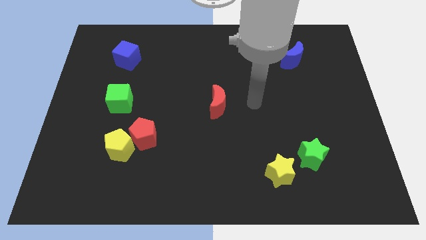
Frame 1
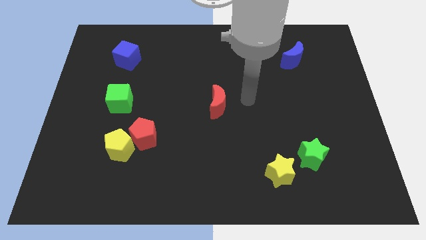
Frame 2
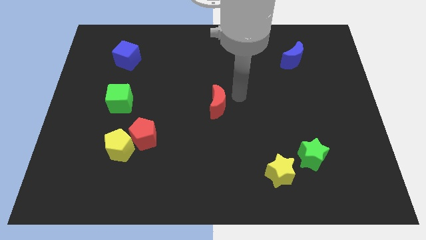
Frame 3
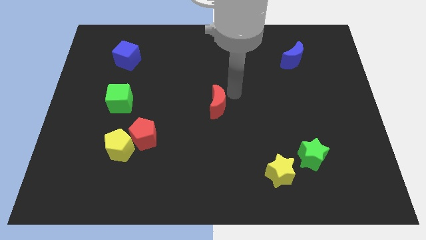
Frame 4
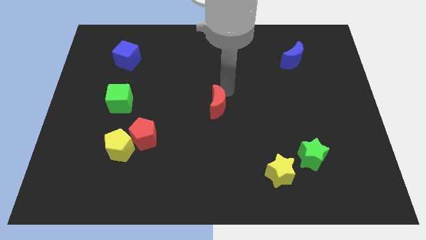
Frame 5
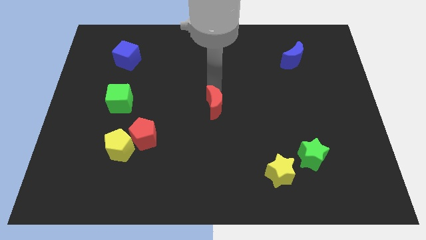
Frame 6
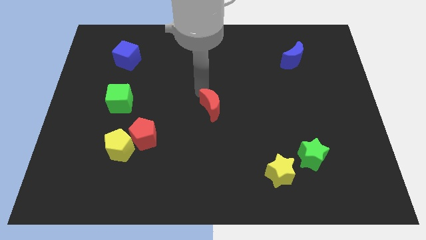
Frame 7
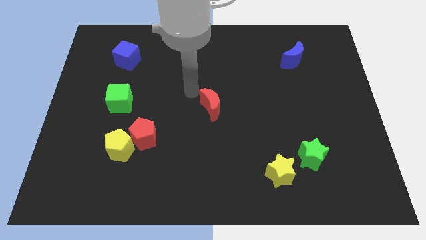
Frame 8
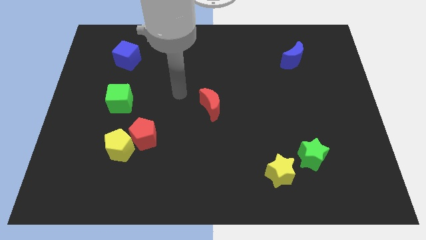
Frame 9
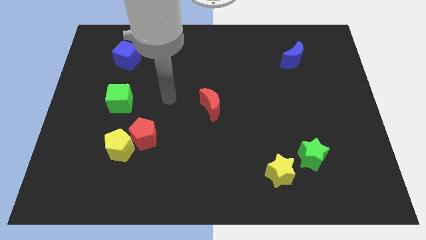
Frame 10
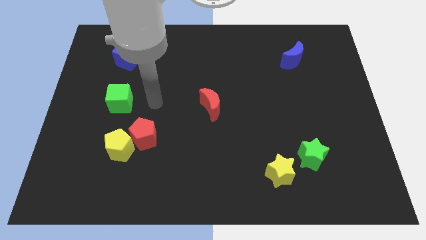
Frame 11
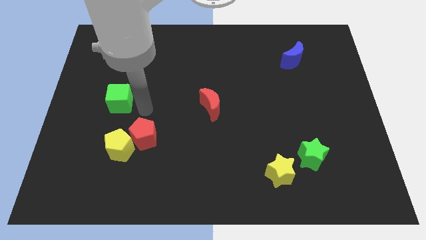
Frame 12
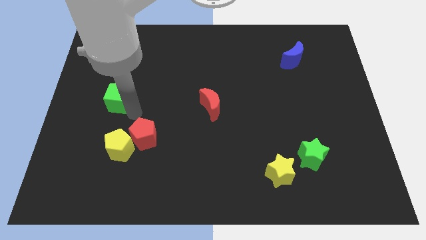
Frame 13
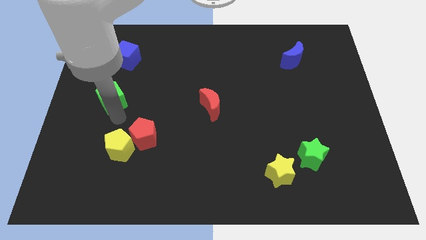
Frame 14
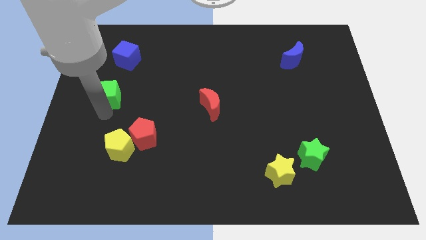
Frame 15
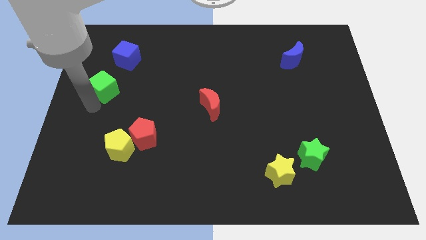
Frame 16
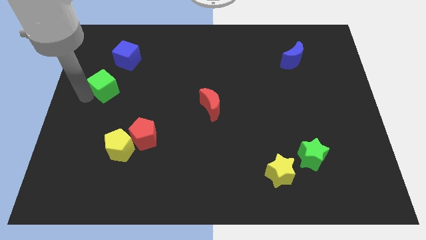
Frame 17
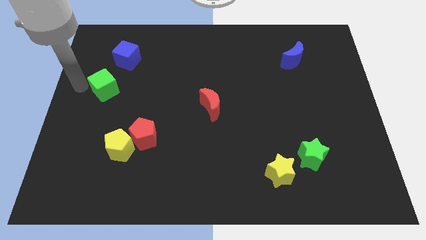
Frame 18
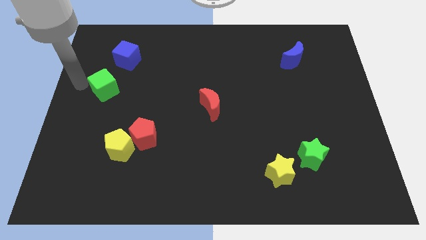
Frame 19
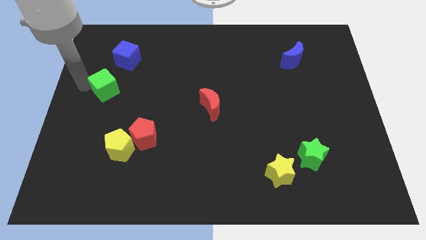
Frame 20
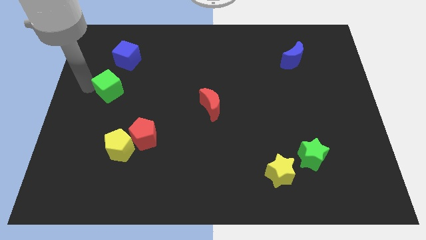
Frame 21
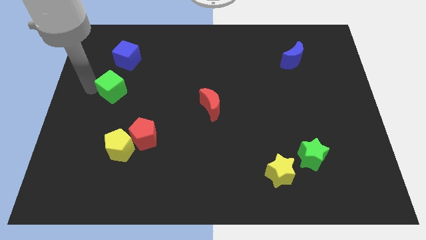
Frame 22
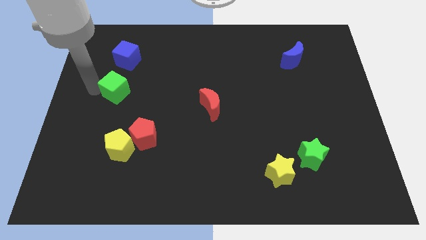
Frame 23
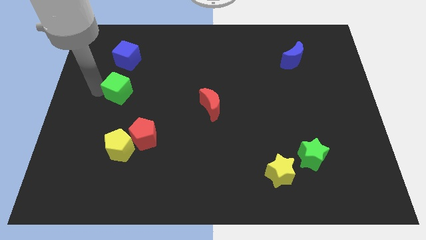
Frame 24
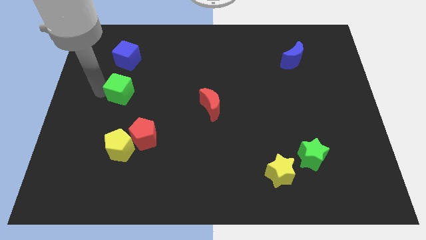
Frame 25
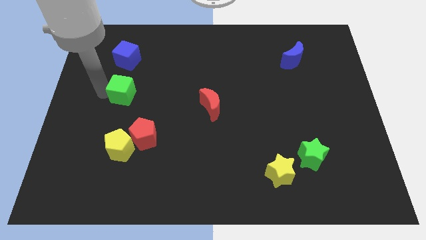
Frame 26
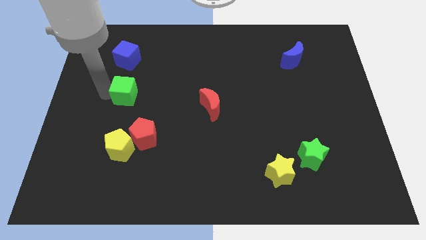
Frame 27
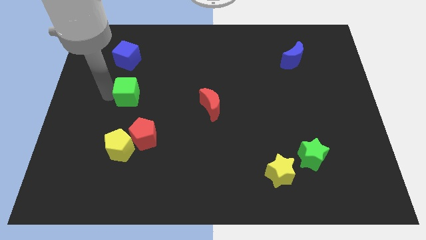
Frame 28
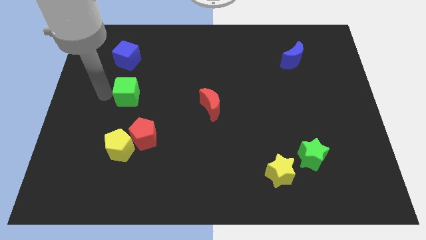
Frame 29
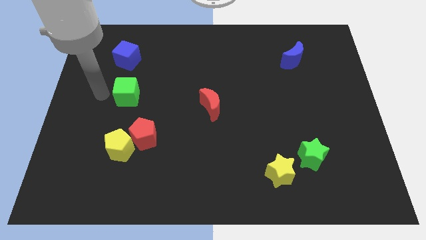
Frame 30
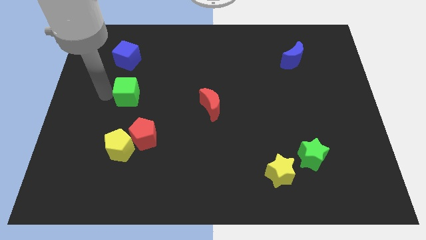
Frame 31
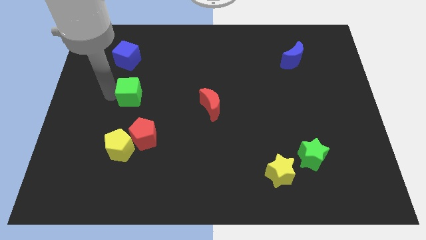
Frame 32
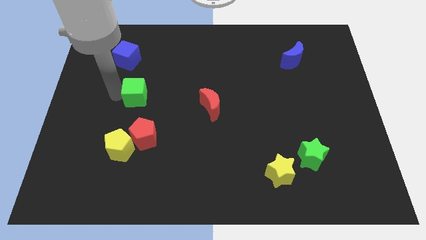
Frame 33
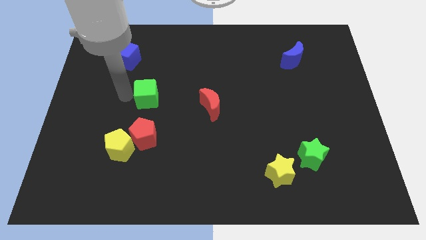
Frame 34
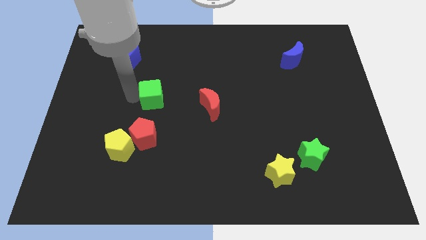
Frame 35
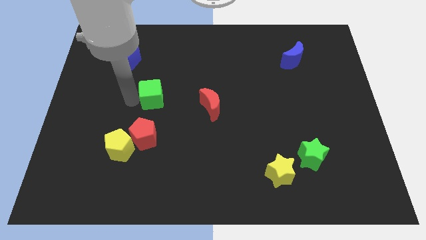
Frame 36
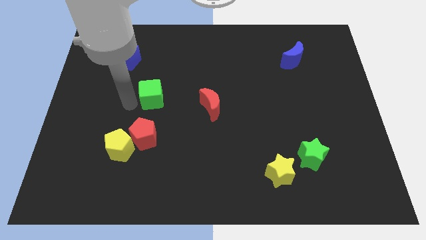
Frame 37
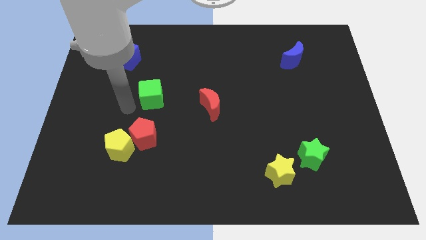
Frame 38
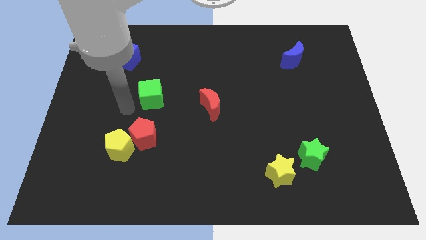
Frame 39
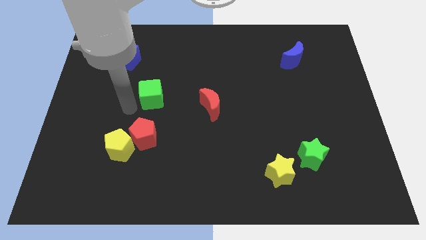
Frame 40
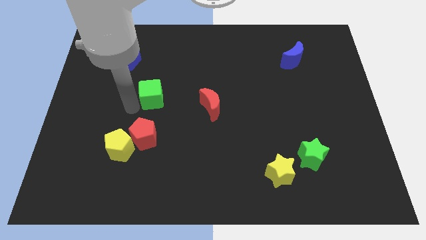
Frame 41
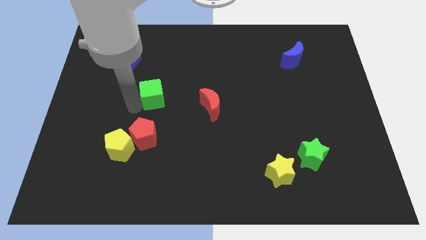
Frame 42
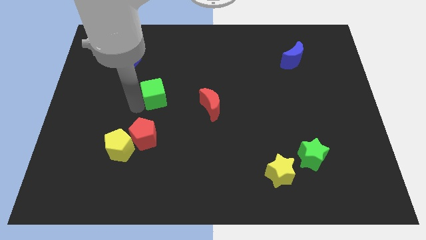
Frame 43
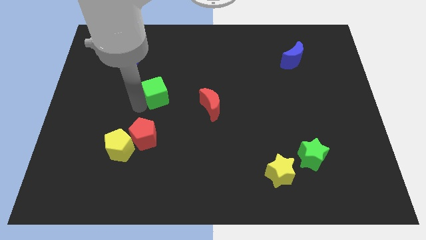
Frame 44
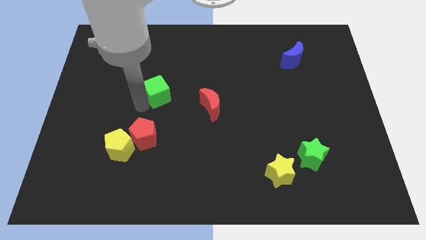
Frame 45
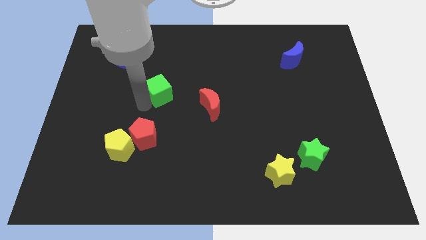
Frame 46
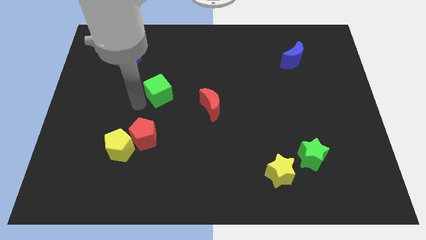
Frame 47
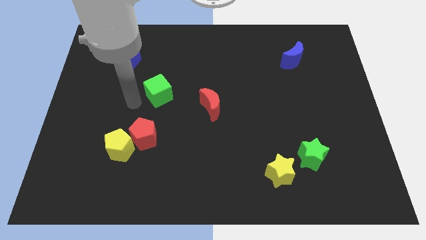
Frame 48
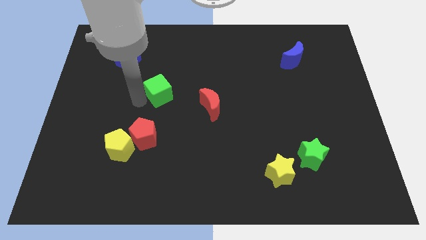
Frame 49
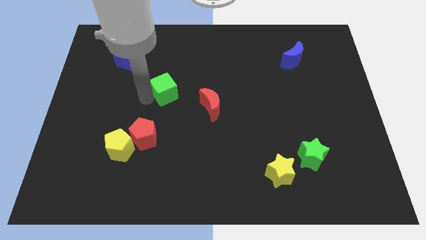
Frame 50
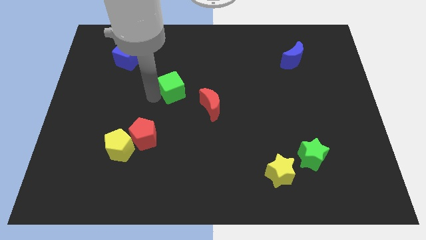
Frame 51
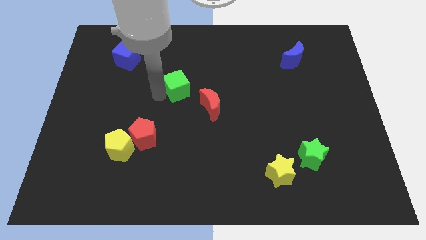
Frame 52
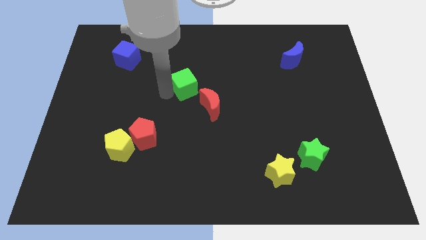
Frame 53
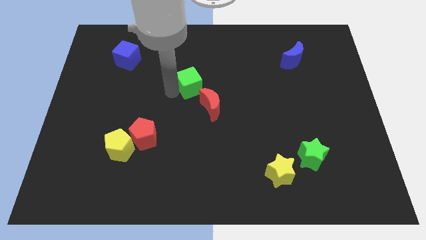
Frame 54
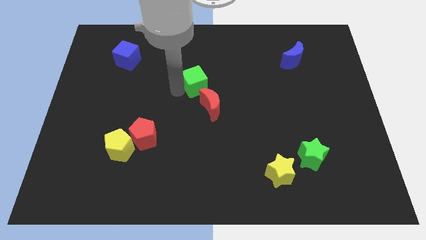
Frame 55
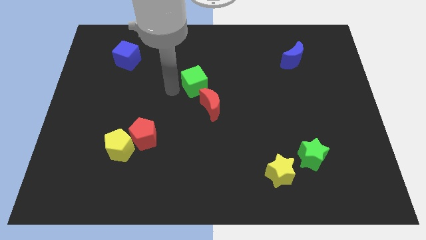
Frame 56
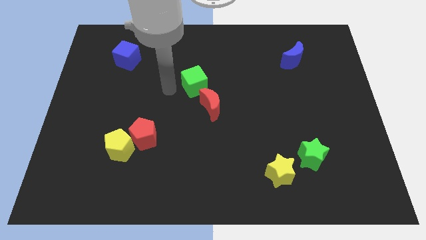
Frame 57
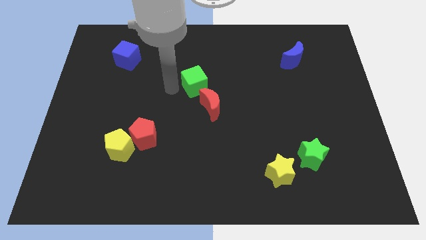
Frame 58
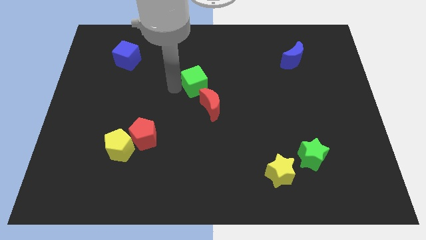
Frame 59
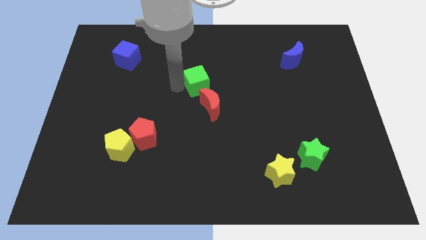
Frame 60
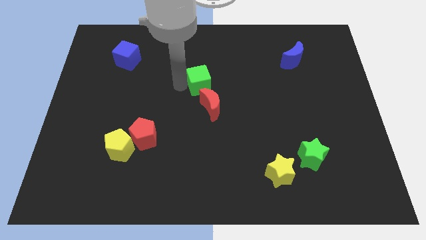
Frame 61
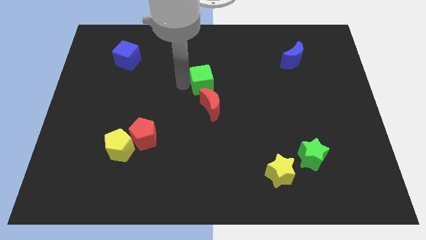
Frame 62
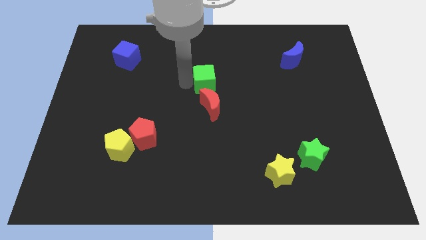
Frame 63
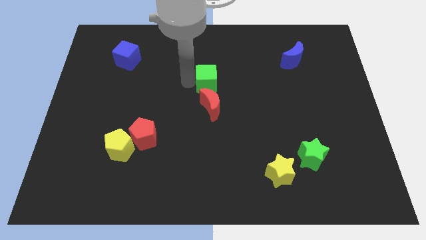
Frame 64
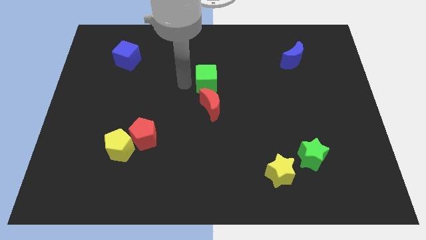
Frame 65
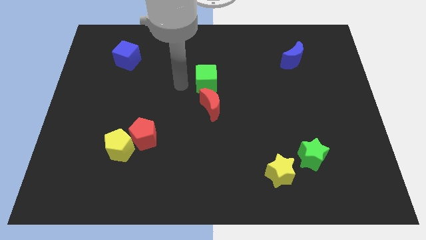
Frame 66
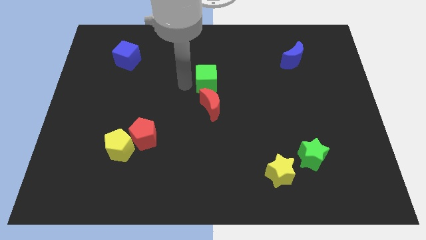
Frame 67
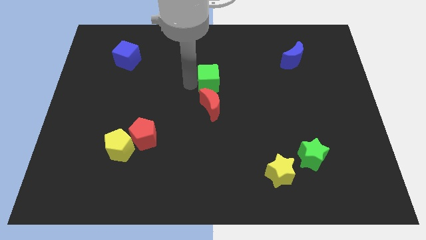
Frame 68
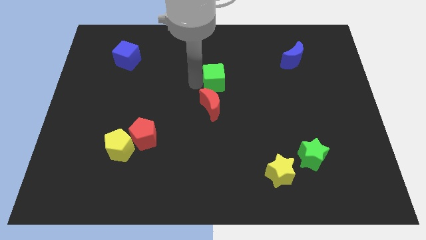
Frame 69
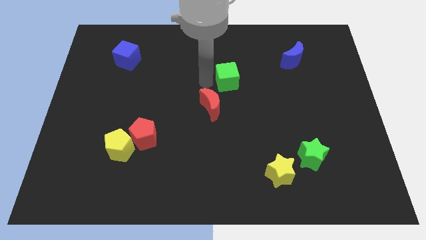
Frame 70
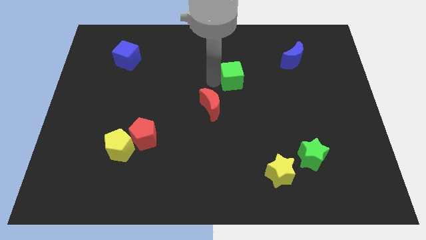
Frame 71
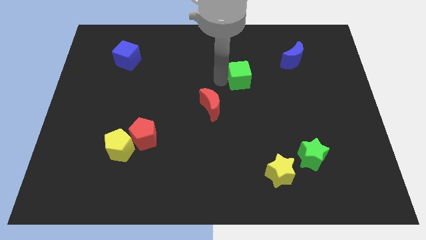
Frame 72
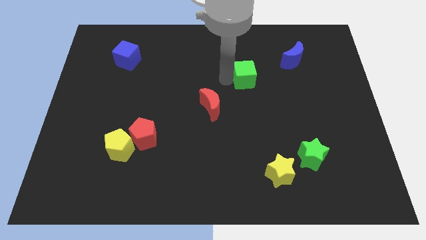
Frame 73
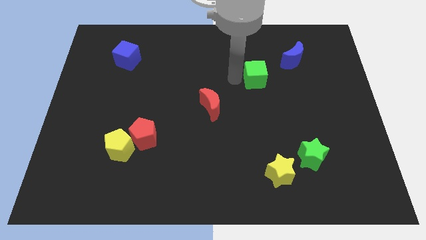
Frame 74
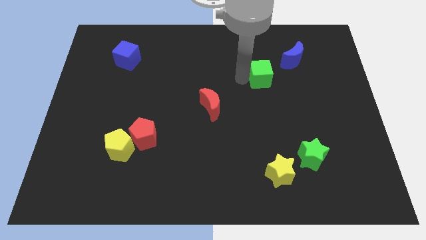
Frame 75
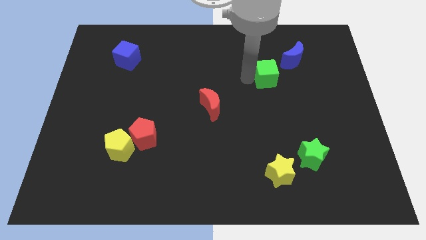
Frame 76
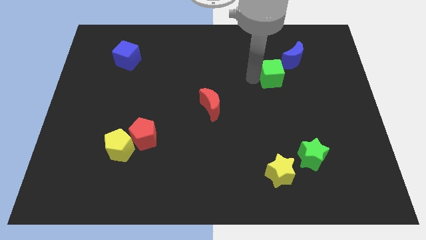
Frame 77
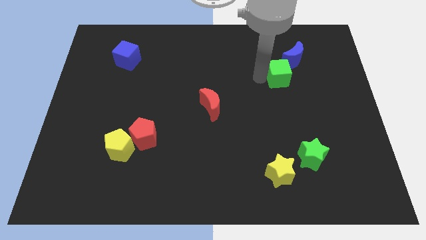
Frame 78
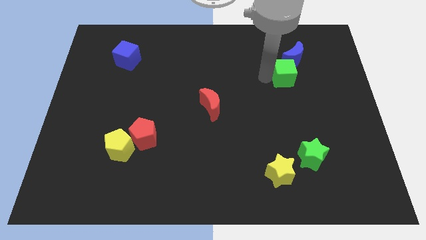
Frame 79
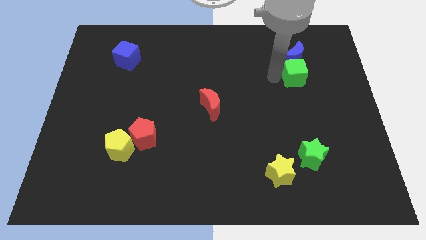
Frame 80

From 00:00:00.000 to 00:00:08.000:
slide the green cube to the bottom right of the blue moon

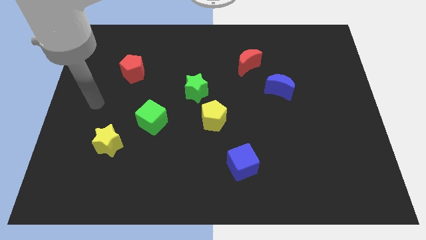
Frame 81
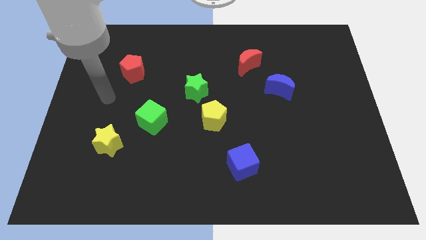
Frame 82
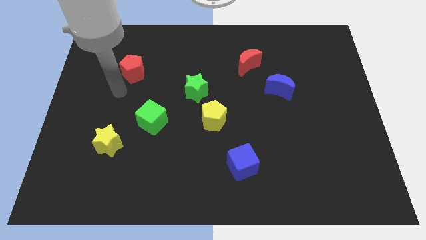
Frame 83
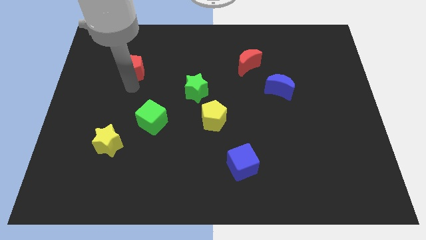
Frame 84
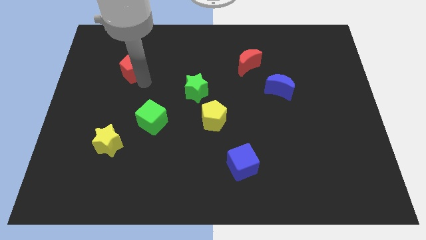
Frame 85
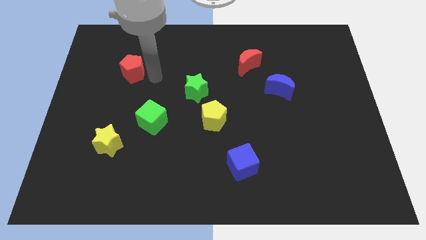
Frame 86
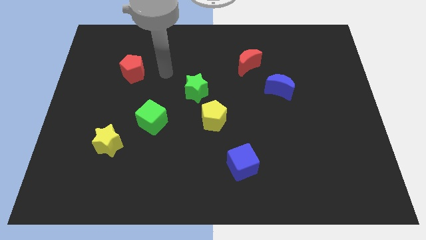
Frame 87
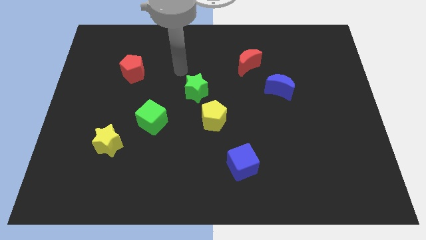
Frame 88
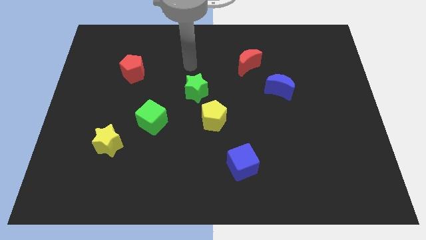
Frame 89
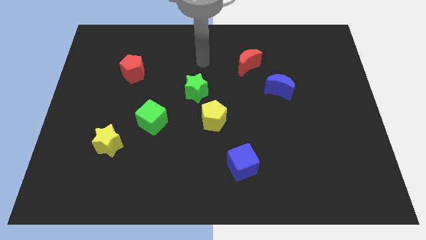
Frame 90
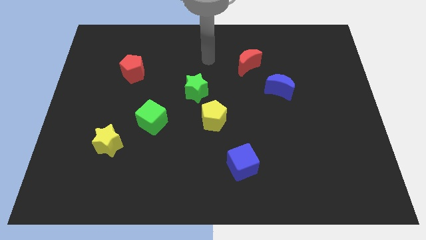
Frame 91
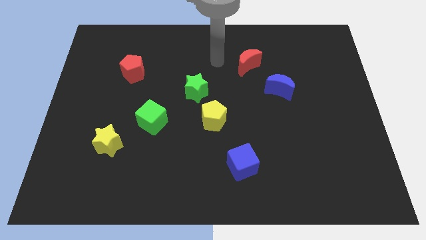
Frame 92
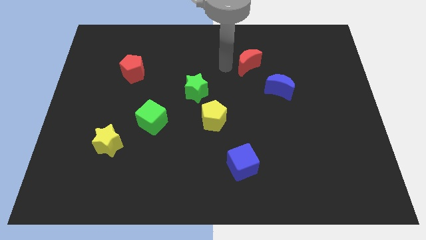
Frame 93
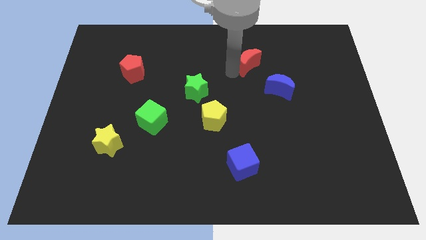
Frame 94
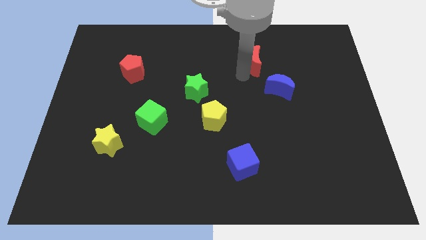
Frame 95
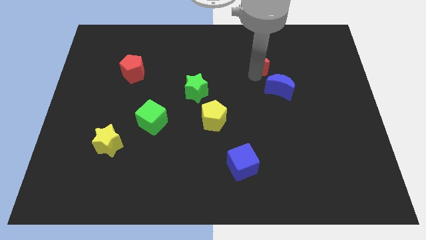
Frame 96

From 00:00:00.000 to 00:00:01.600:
move the blue moon to the bottom of the red moon
